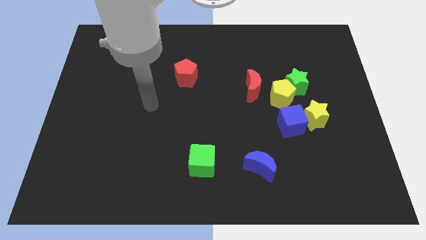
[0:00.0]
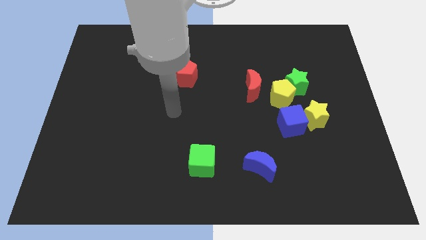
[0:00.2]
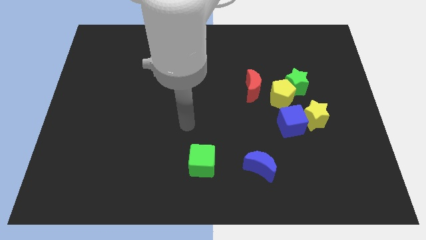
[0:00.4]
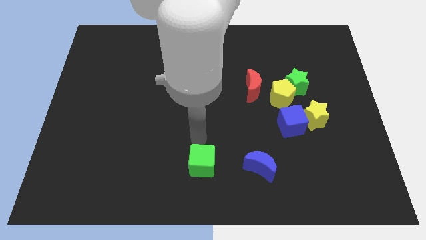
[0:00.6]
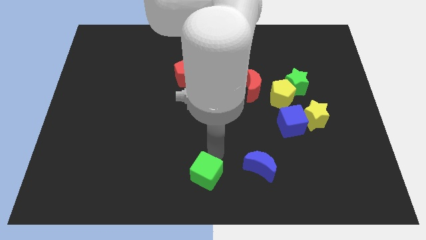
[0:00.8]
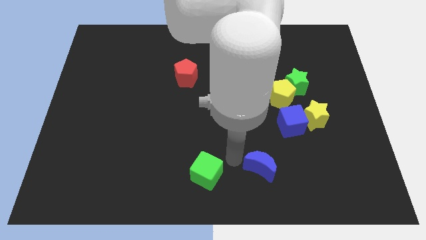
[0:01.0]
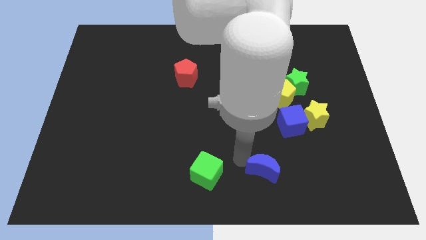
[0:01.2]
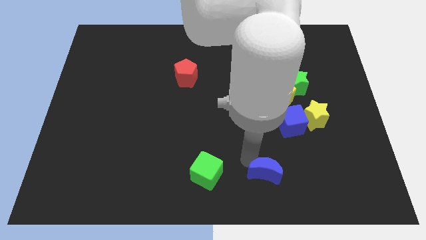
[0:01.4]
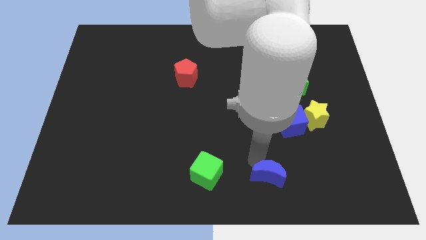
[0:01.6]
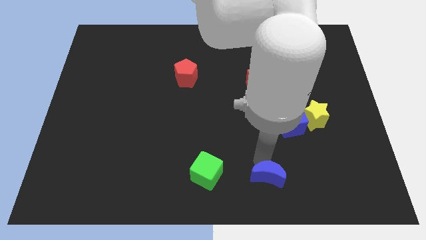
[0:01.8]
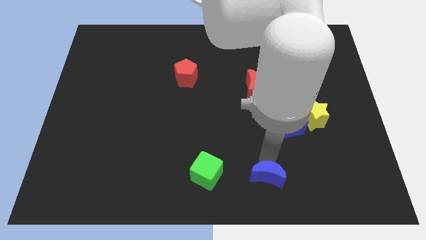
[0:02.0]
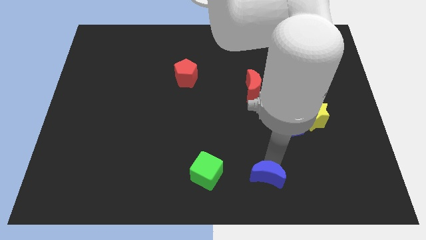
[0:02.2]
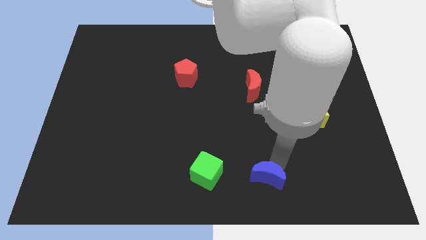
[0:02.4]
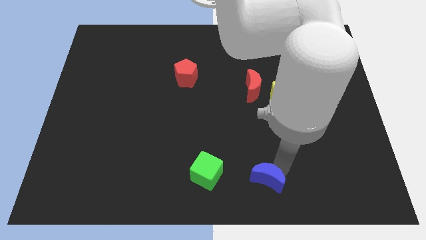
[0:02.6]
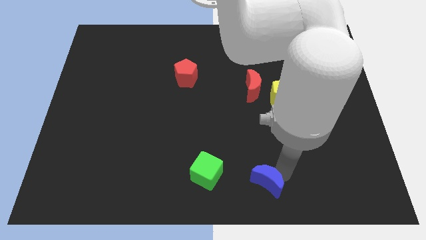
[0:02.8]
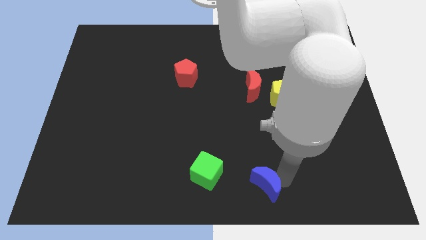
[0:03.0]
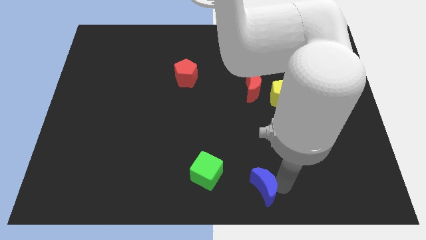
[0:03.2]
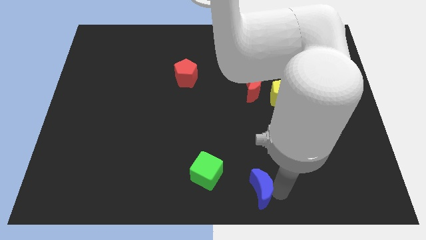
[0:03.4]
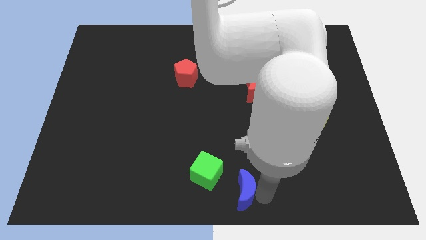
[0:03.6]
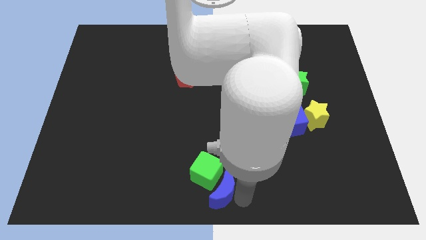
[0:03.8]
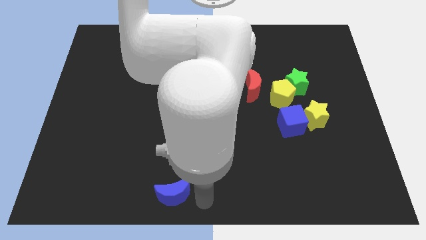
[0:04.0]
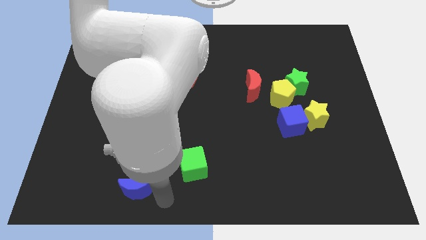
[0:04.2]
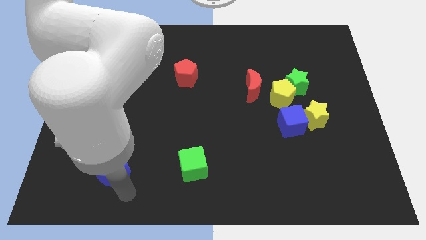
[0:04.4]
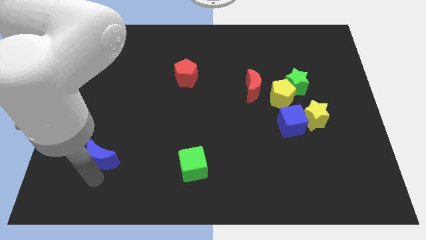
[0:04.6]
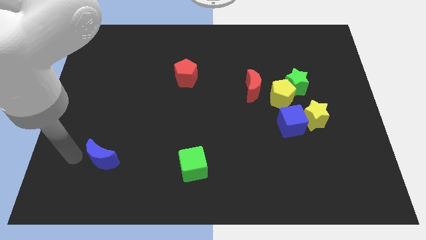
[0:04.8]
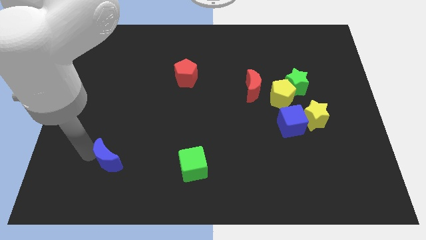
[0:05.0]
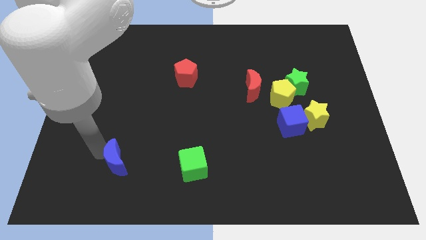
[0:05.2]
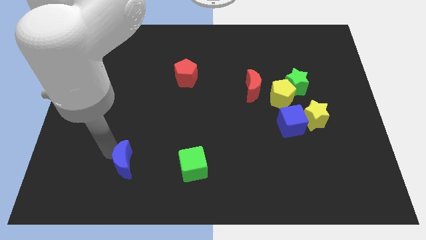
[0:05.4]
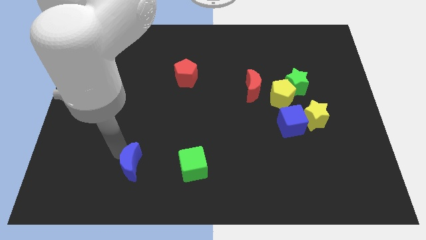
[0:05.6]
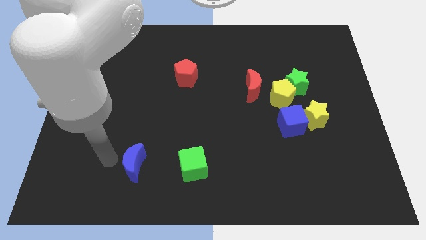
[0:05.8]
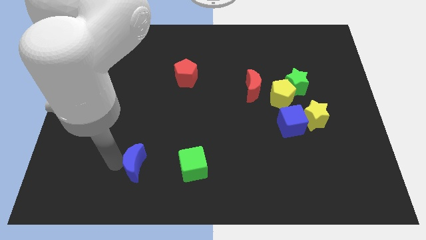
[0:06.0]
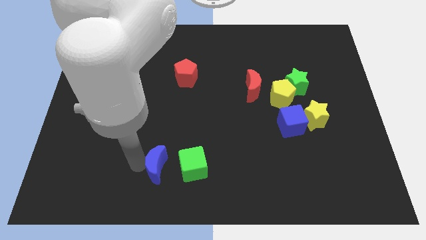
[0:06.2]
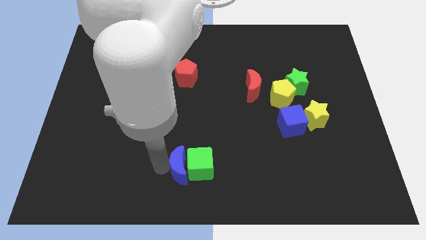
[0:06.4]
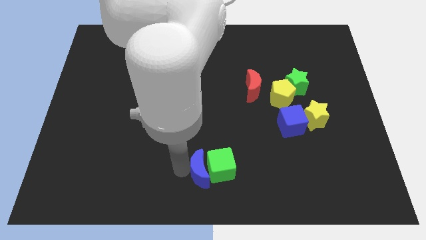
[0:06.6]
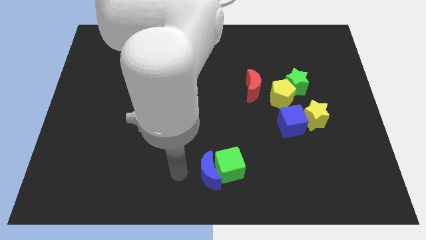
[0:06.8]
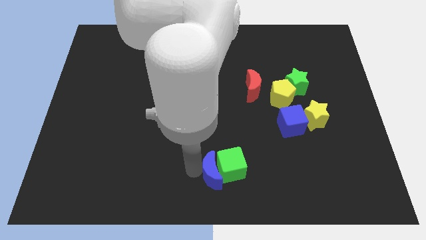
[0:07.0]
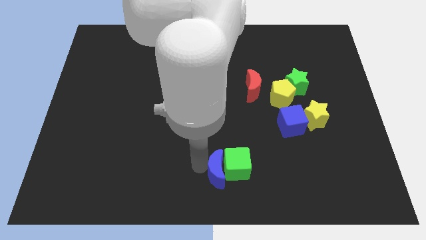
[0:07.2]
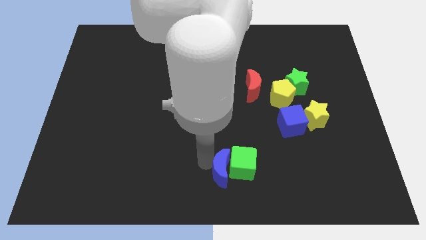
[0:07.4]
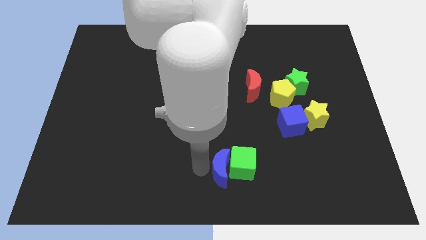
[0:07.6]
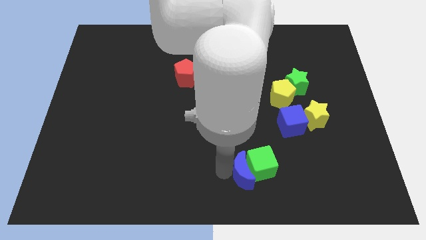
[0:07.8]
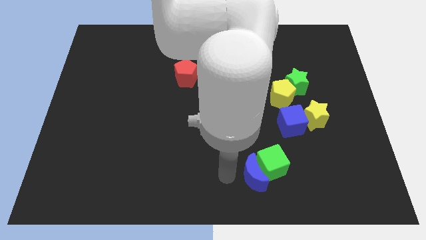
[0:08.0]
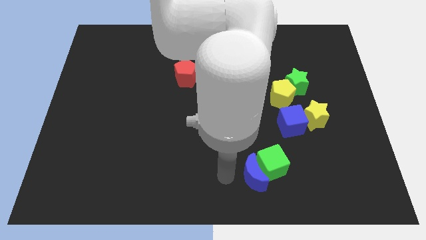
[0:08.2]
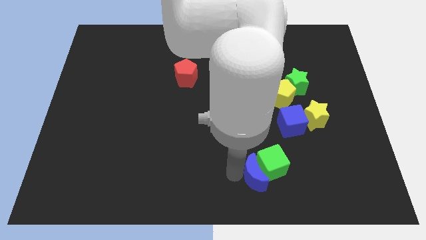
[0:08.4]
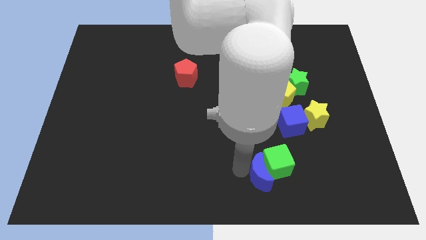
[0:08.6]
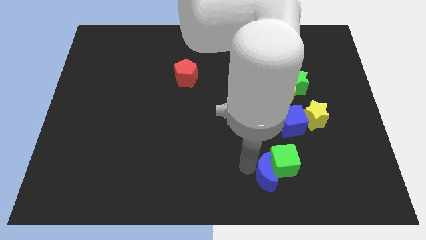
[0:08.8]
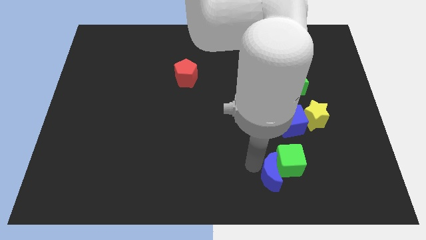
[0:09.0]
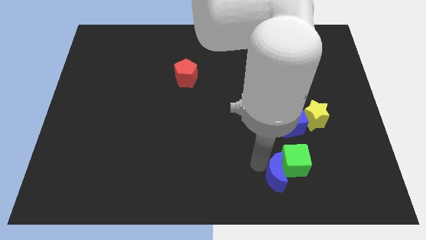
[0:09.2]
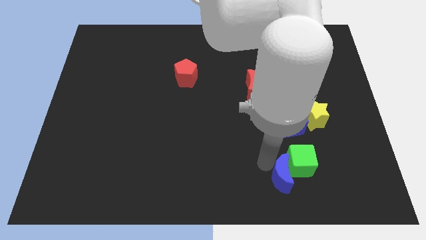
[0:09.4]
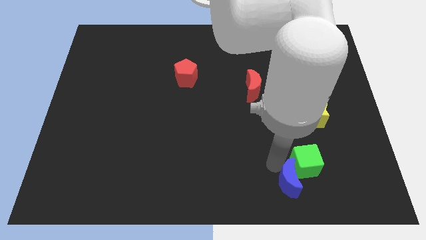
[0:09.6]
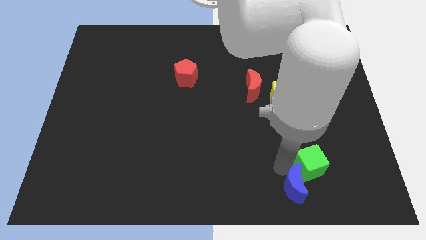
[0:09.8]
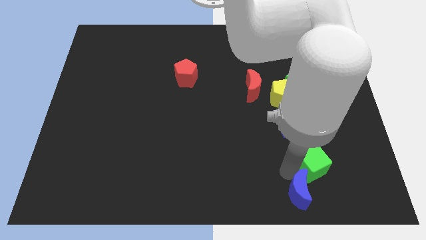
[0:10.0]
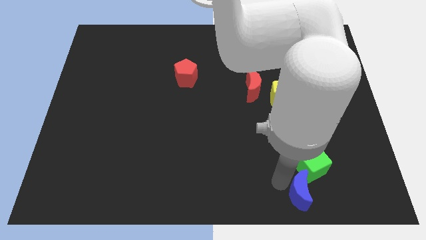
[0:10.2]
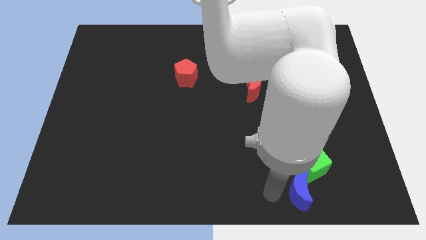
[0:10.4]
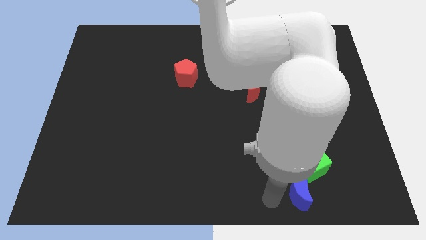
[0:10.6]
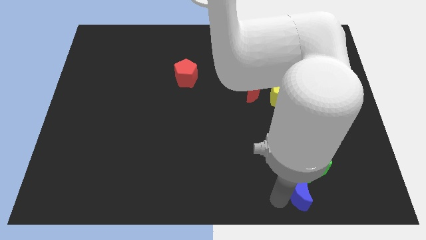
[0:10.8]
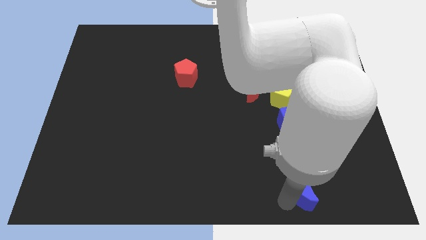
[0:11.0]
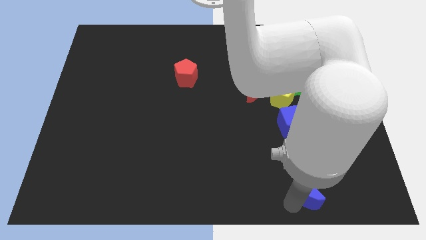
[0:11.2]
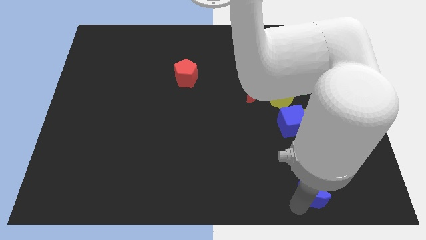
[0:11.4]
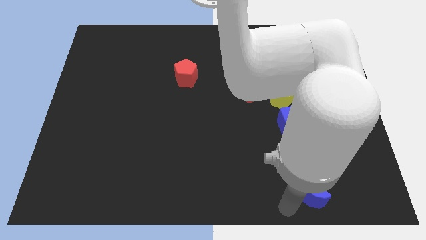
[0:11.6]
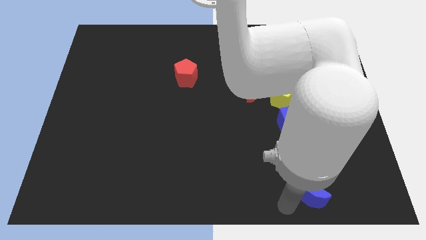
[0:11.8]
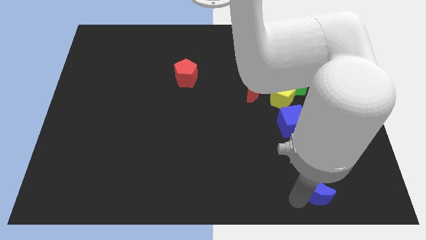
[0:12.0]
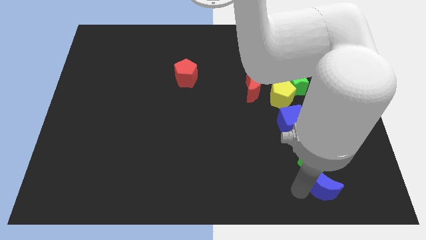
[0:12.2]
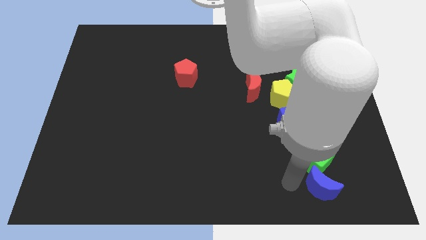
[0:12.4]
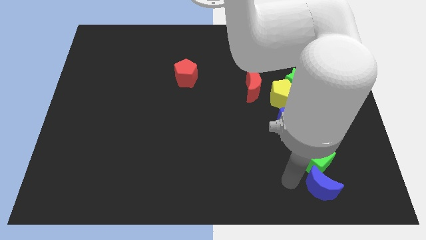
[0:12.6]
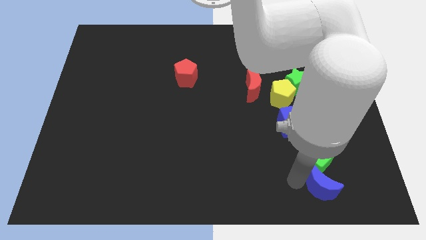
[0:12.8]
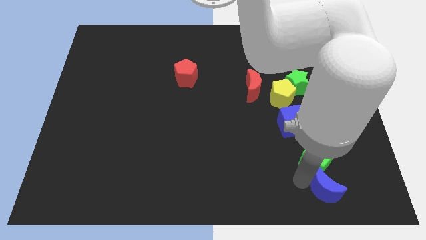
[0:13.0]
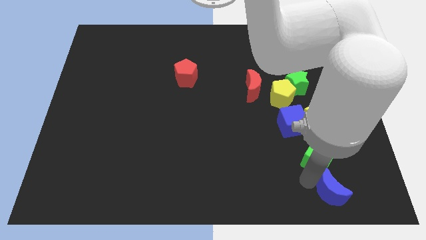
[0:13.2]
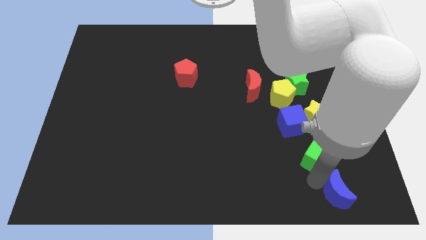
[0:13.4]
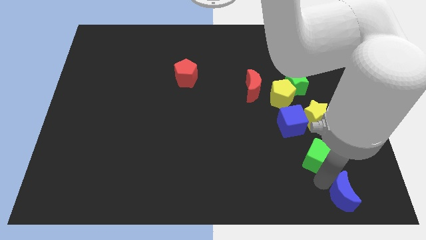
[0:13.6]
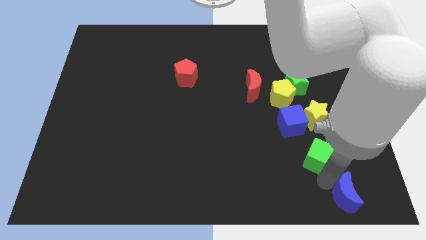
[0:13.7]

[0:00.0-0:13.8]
move the blue moon to the lower right corner
